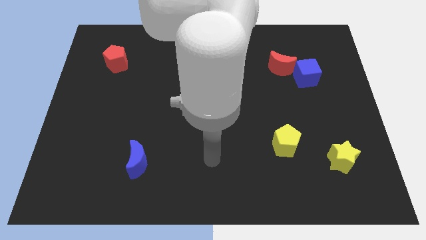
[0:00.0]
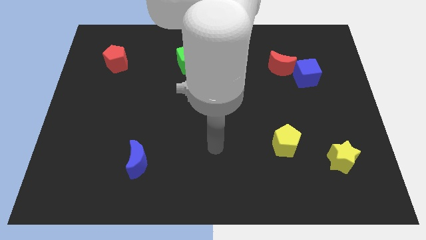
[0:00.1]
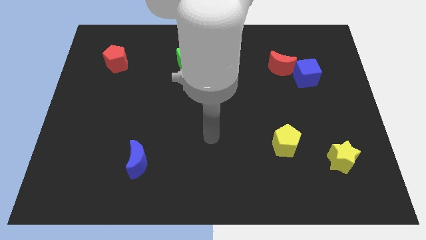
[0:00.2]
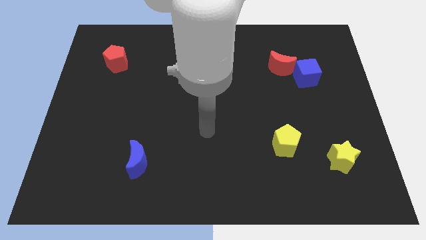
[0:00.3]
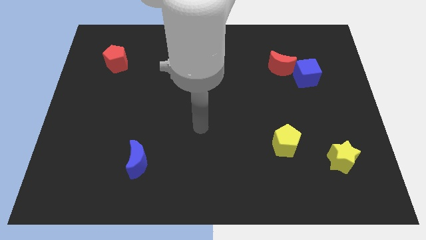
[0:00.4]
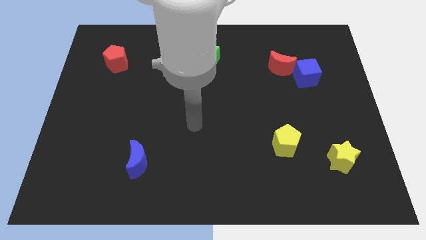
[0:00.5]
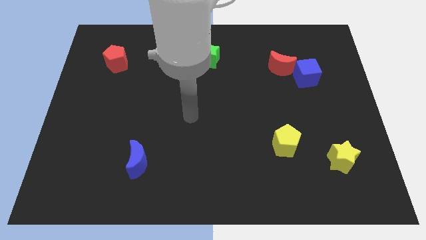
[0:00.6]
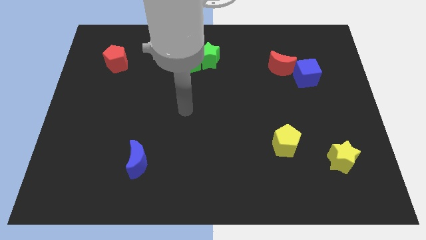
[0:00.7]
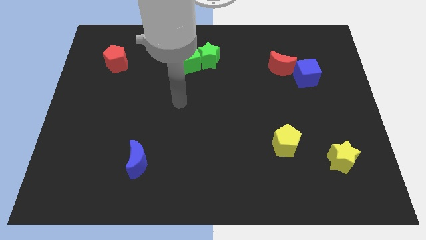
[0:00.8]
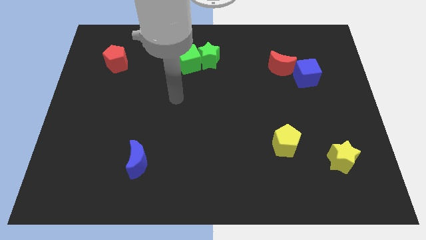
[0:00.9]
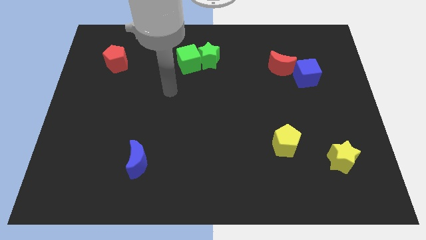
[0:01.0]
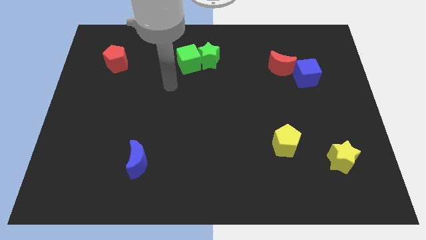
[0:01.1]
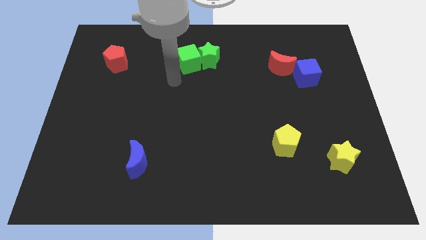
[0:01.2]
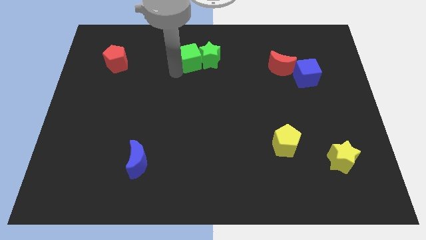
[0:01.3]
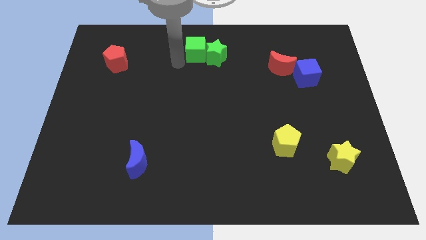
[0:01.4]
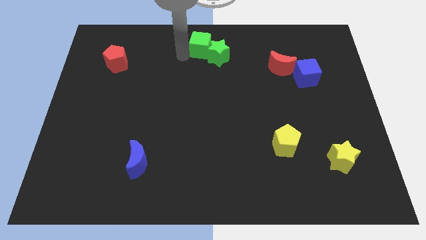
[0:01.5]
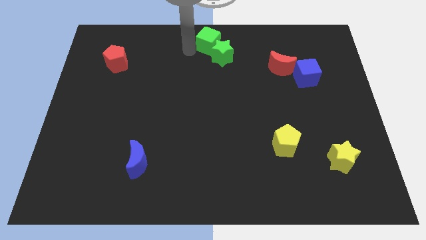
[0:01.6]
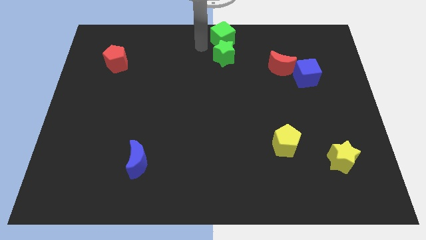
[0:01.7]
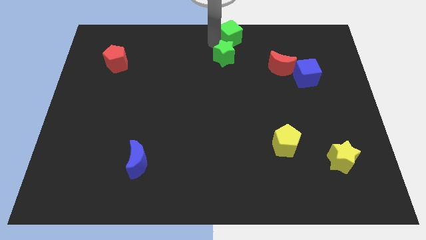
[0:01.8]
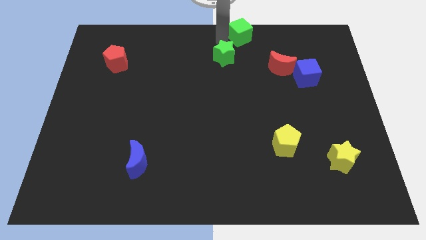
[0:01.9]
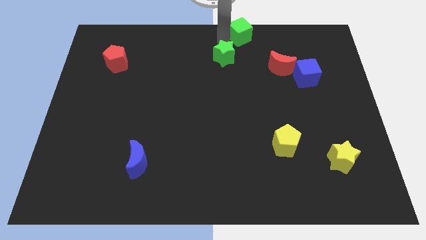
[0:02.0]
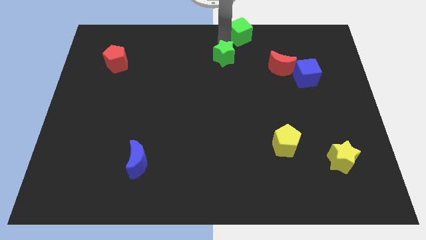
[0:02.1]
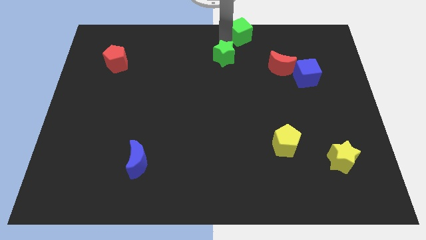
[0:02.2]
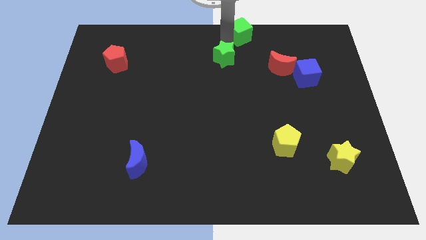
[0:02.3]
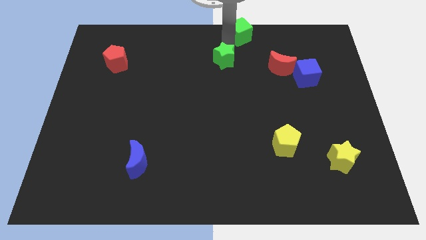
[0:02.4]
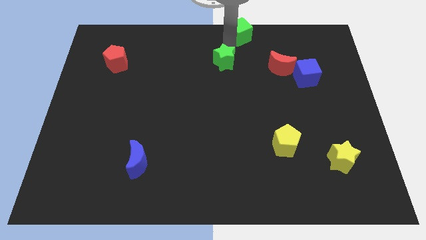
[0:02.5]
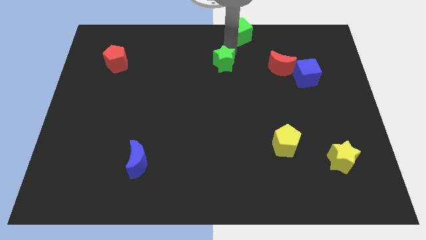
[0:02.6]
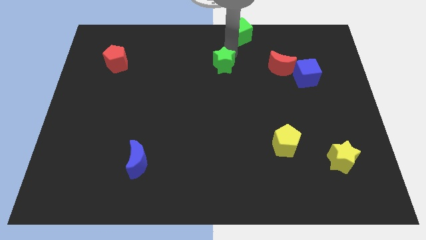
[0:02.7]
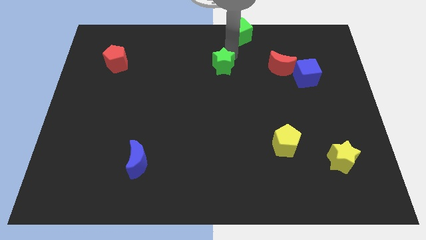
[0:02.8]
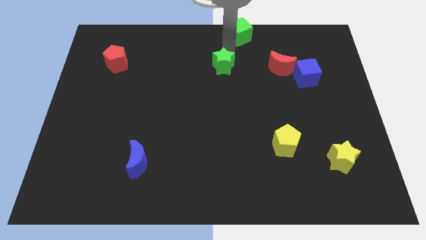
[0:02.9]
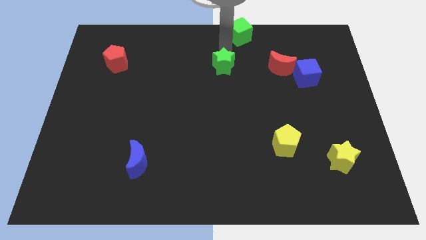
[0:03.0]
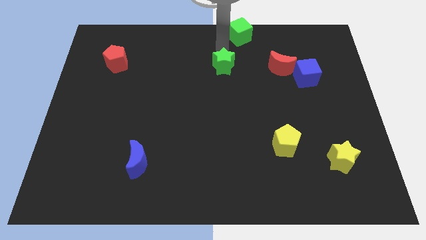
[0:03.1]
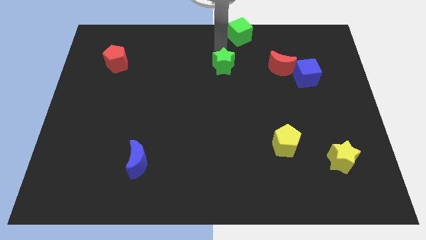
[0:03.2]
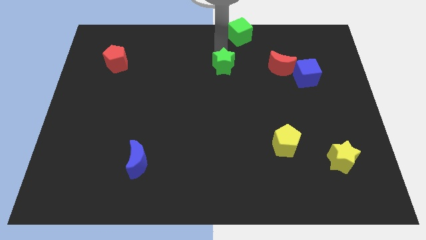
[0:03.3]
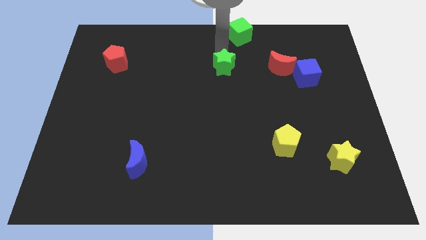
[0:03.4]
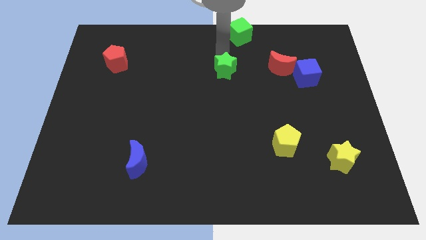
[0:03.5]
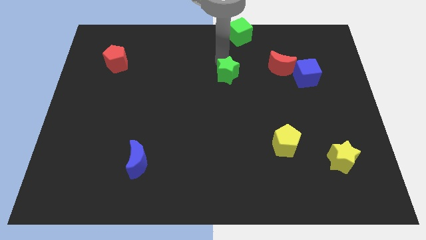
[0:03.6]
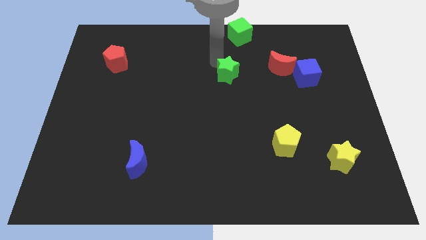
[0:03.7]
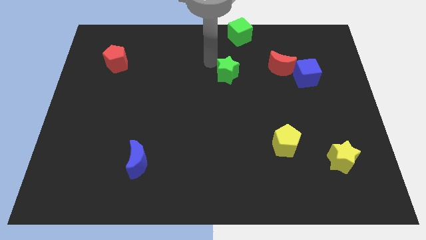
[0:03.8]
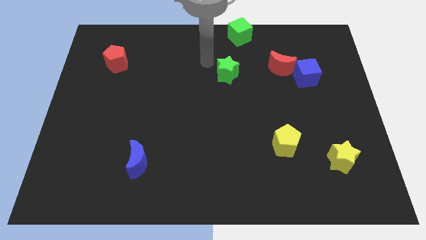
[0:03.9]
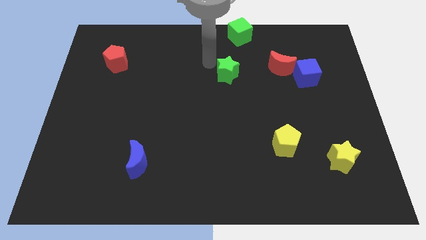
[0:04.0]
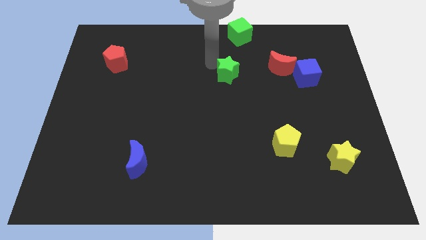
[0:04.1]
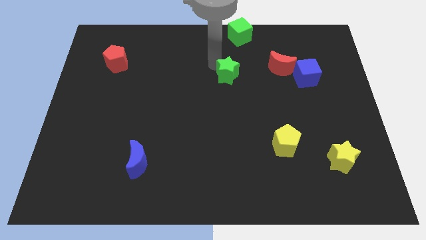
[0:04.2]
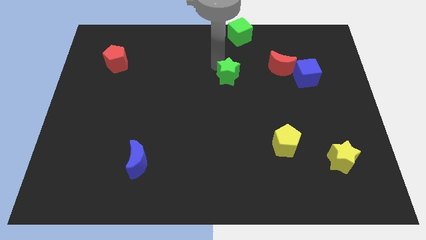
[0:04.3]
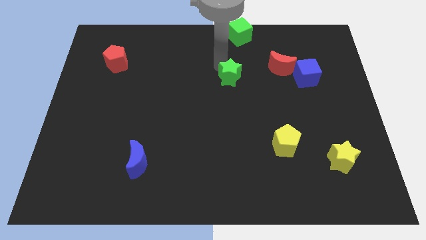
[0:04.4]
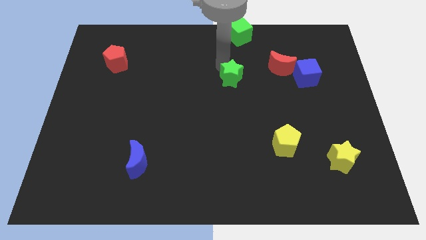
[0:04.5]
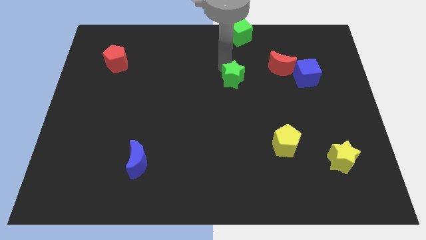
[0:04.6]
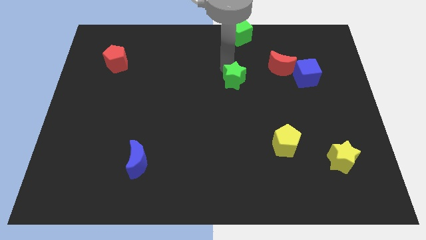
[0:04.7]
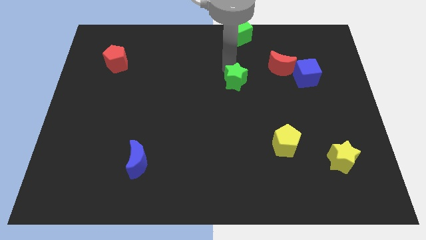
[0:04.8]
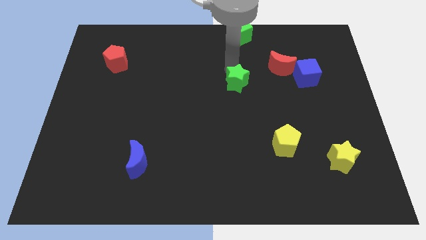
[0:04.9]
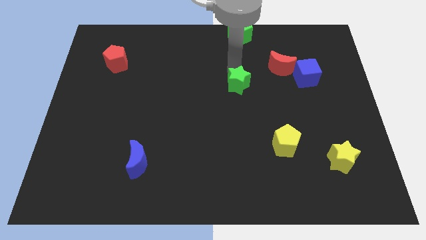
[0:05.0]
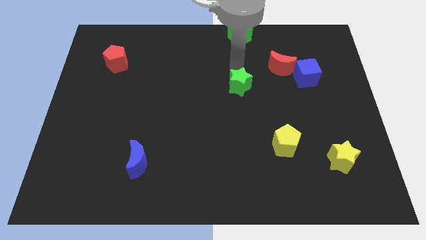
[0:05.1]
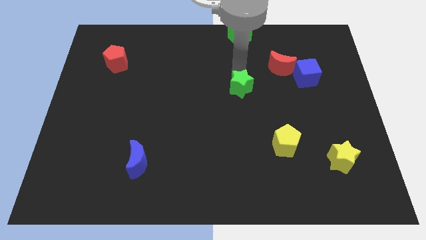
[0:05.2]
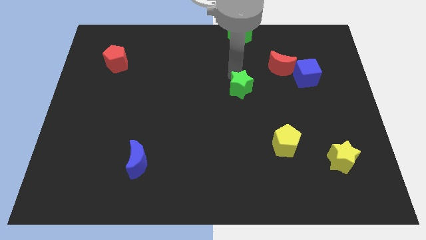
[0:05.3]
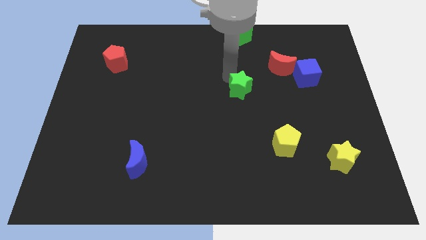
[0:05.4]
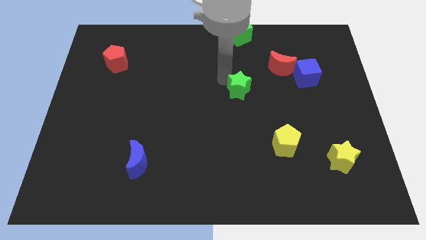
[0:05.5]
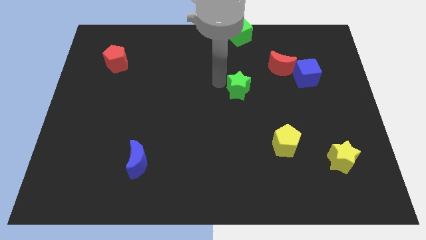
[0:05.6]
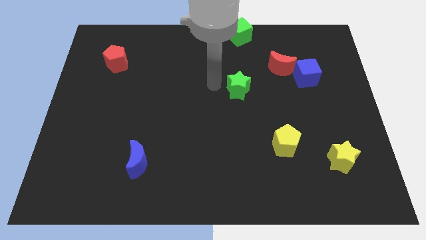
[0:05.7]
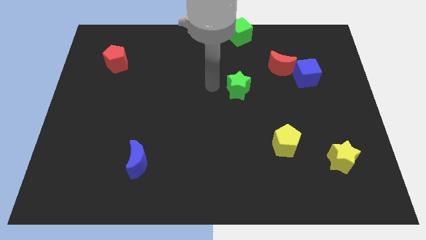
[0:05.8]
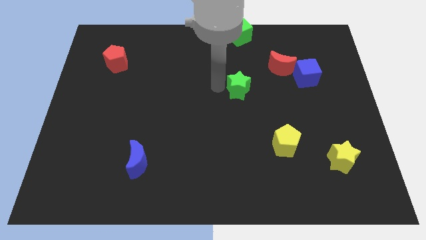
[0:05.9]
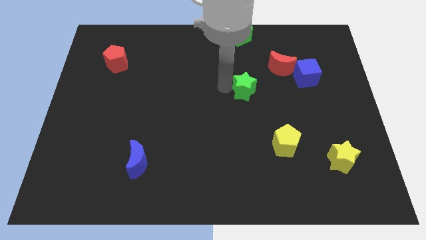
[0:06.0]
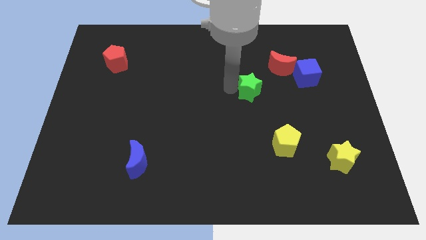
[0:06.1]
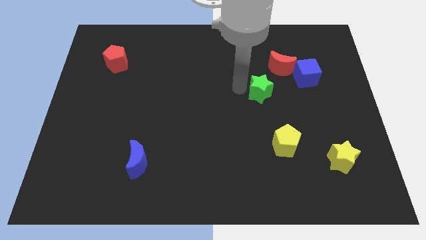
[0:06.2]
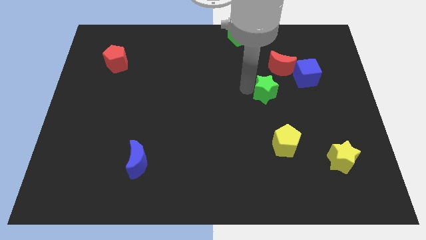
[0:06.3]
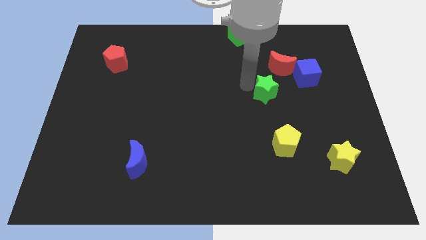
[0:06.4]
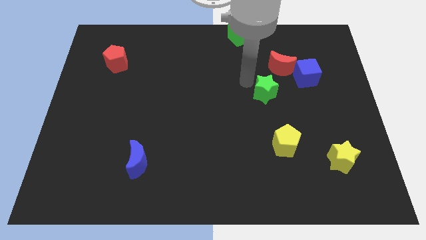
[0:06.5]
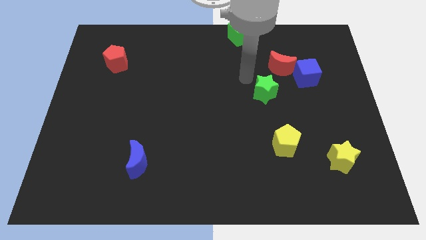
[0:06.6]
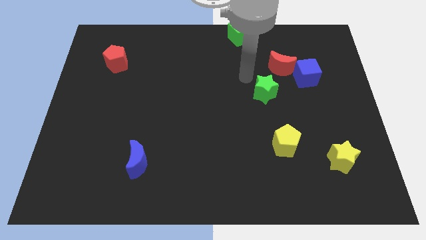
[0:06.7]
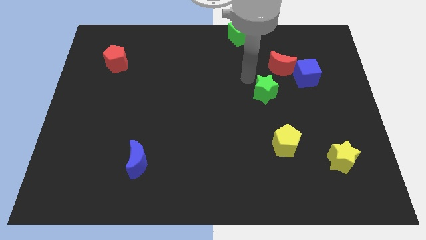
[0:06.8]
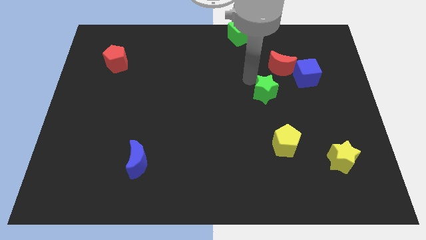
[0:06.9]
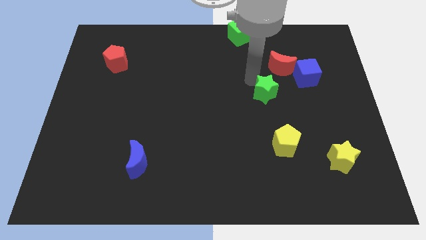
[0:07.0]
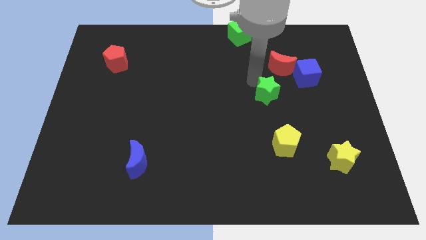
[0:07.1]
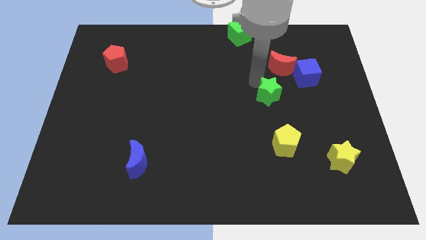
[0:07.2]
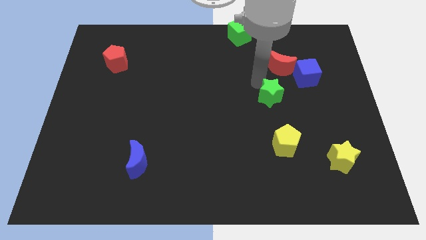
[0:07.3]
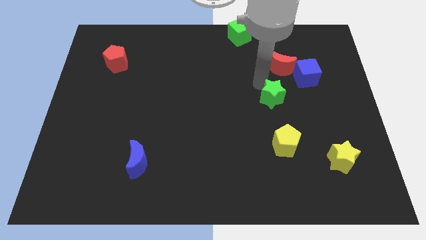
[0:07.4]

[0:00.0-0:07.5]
push the green star down and then right

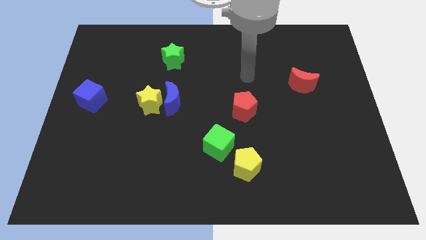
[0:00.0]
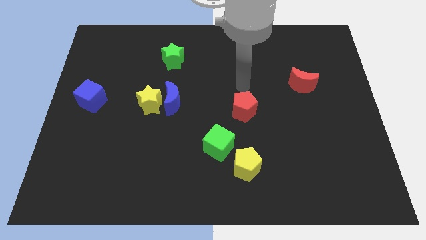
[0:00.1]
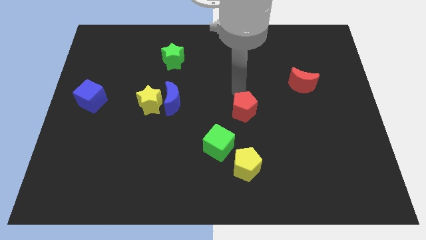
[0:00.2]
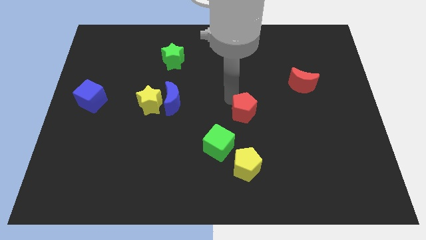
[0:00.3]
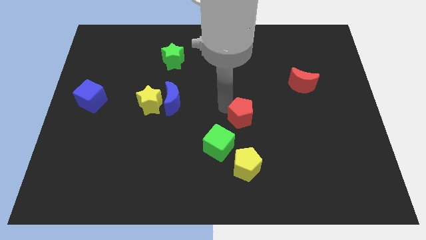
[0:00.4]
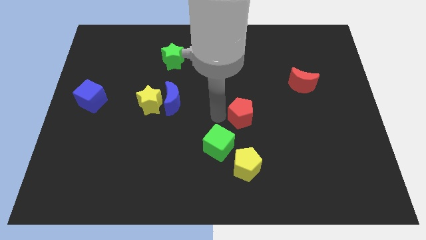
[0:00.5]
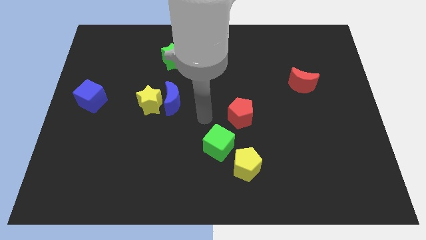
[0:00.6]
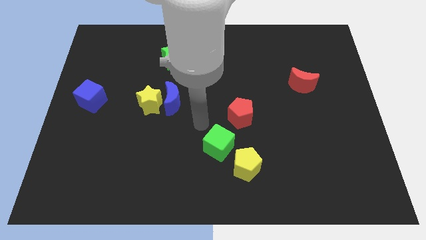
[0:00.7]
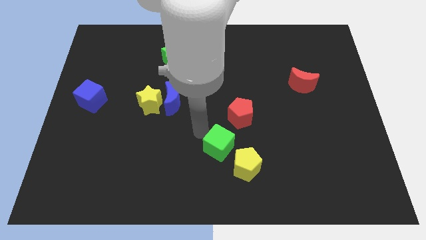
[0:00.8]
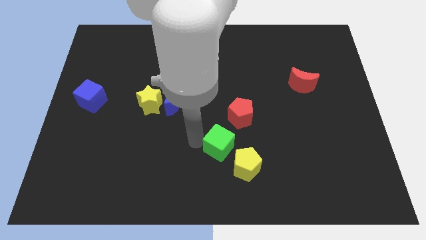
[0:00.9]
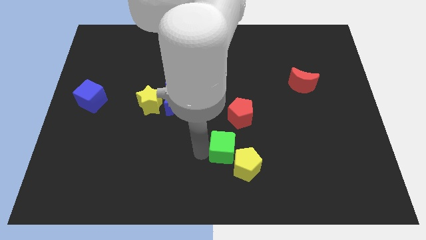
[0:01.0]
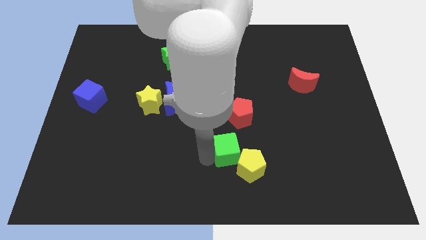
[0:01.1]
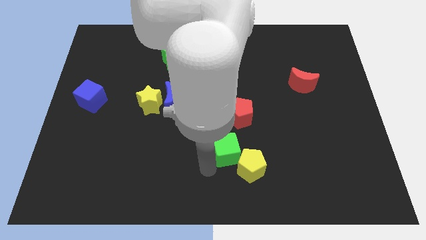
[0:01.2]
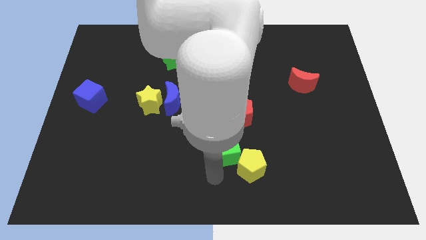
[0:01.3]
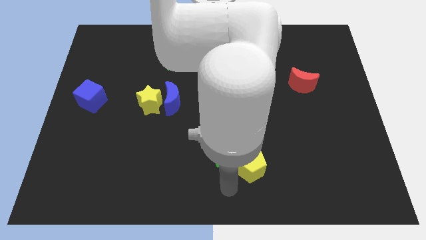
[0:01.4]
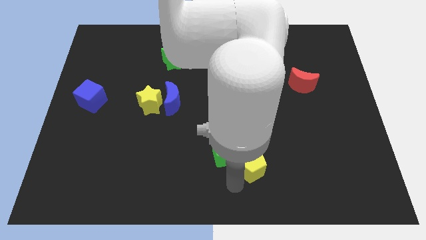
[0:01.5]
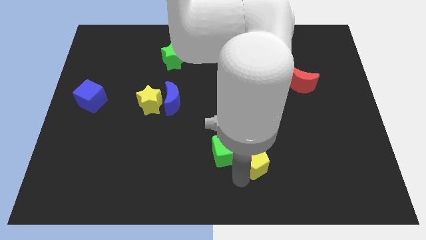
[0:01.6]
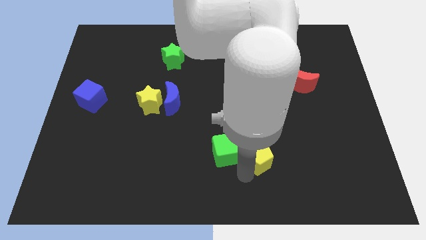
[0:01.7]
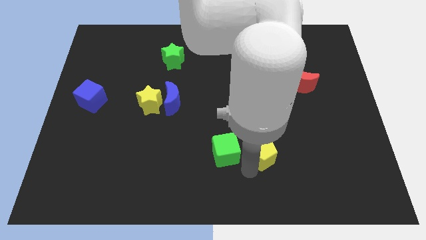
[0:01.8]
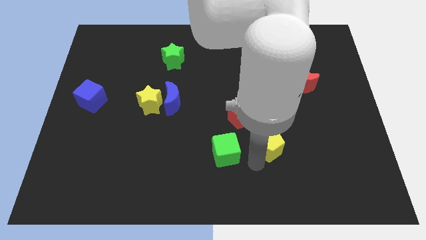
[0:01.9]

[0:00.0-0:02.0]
move the yellow pentagon a little diagonally up and right
